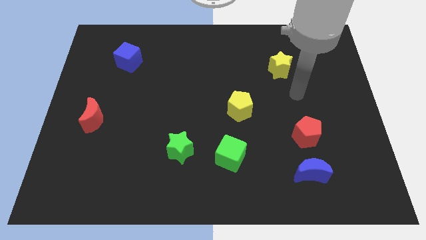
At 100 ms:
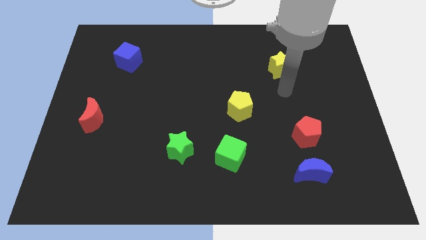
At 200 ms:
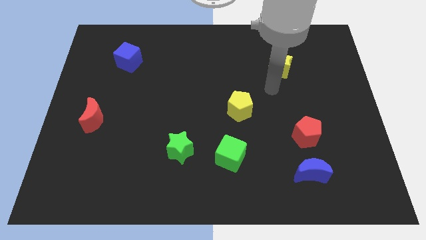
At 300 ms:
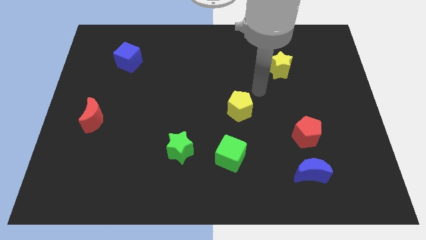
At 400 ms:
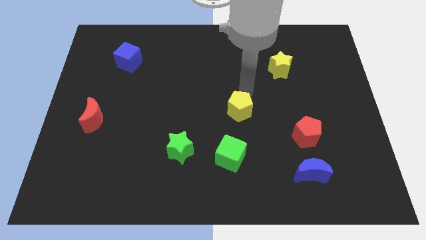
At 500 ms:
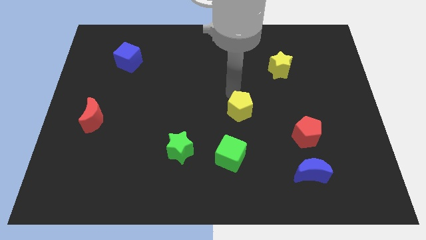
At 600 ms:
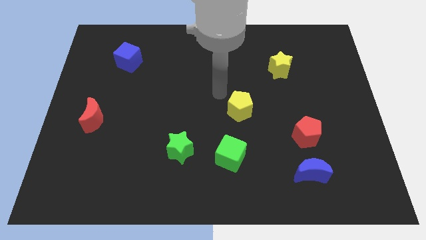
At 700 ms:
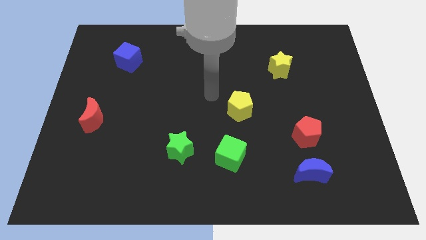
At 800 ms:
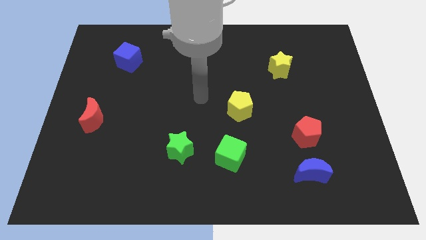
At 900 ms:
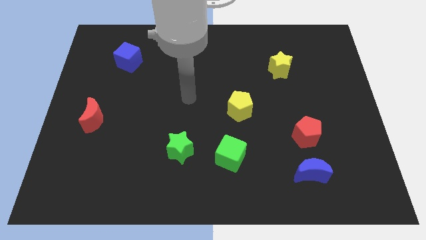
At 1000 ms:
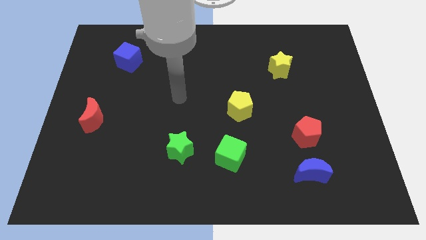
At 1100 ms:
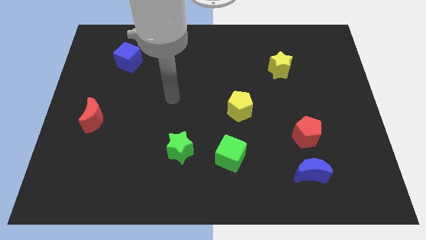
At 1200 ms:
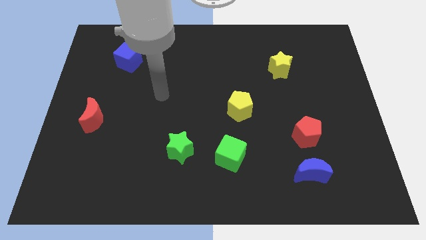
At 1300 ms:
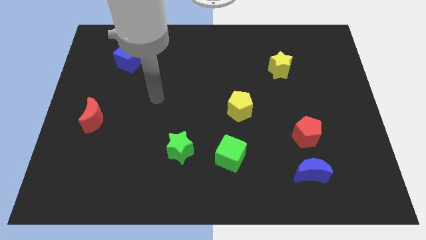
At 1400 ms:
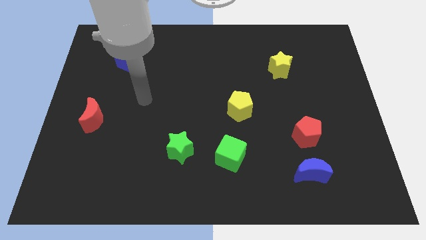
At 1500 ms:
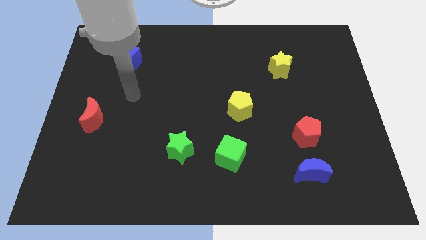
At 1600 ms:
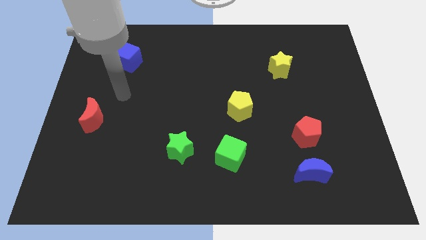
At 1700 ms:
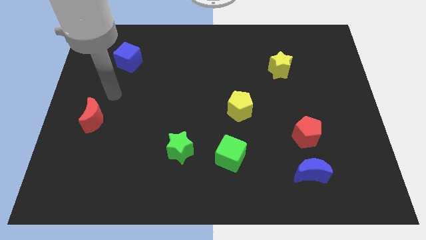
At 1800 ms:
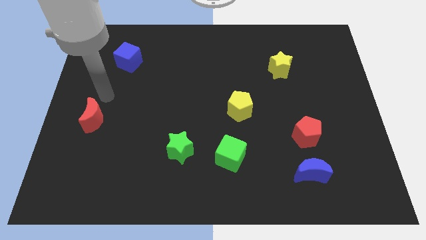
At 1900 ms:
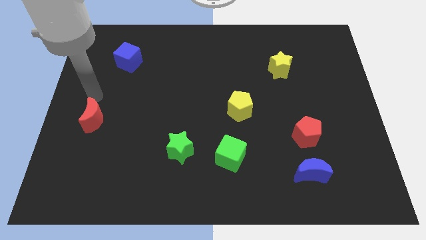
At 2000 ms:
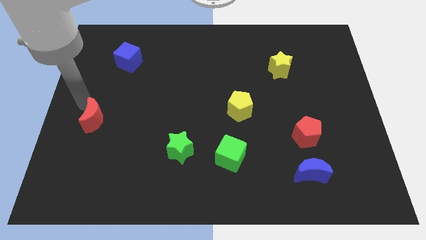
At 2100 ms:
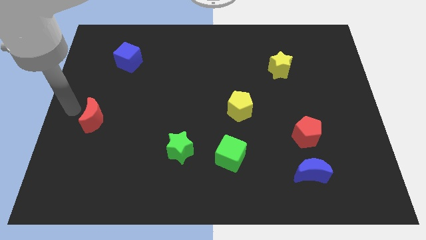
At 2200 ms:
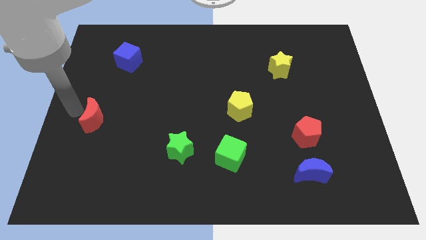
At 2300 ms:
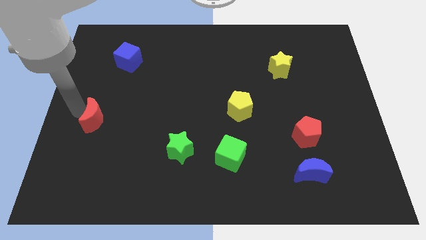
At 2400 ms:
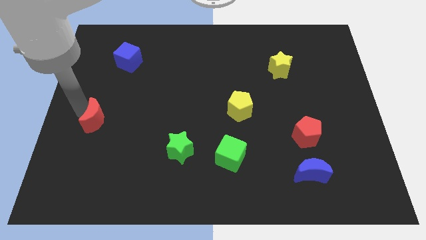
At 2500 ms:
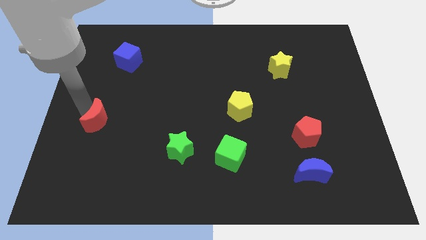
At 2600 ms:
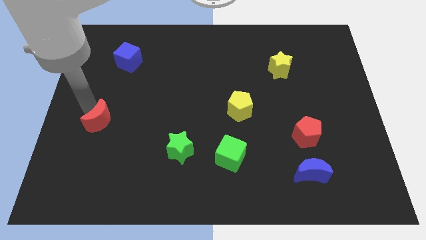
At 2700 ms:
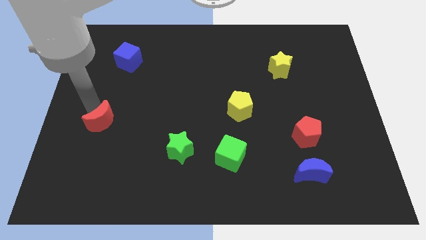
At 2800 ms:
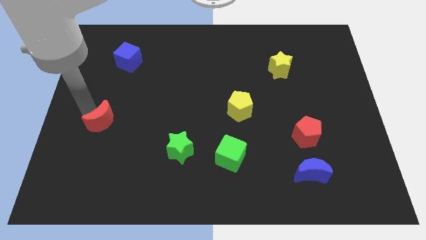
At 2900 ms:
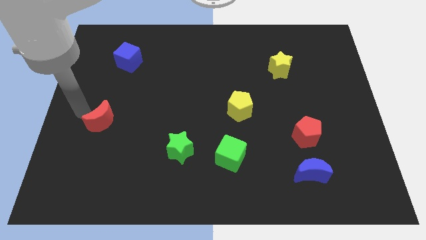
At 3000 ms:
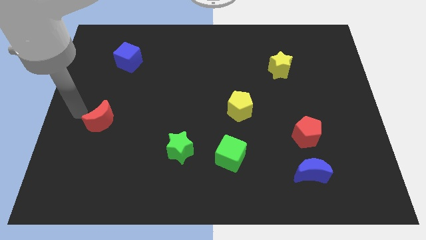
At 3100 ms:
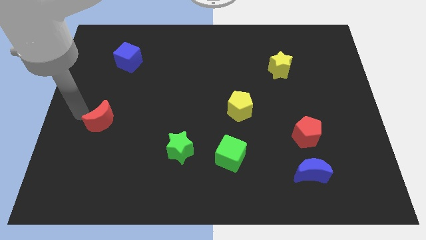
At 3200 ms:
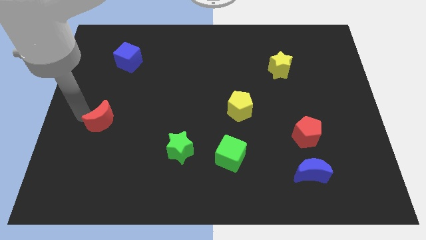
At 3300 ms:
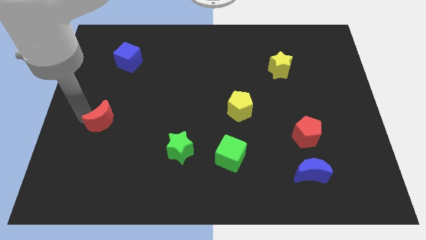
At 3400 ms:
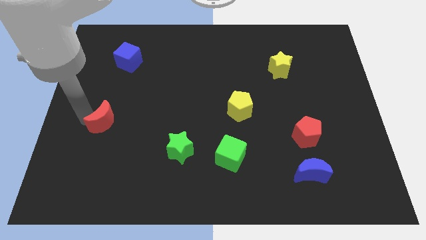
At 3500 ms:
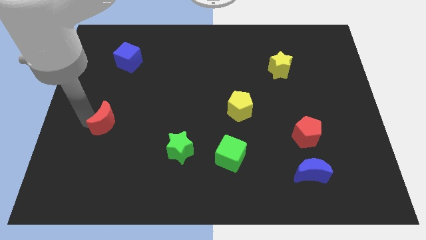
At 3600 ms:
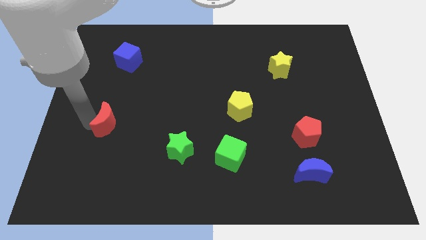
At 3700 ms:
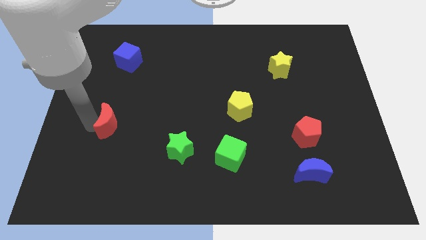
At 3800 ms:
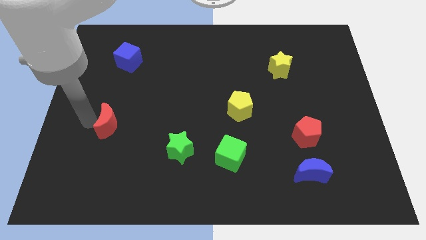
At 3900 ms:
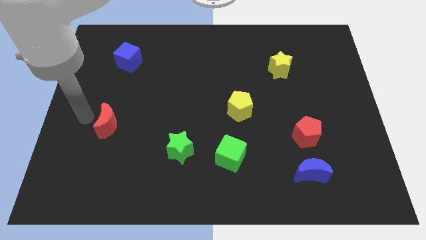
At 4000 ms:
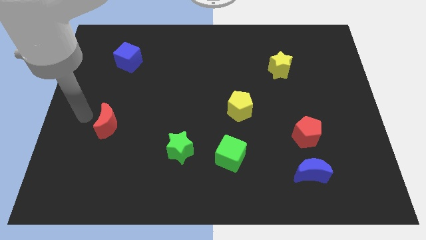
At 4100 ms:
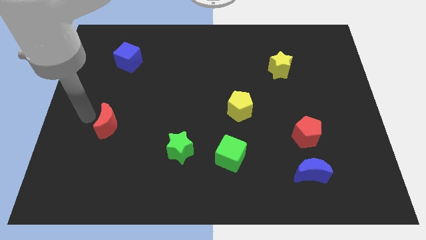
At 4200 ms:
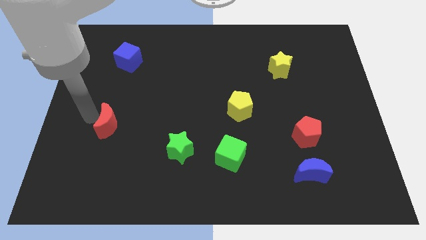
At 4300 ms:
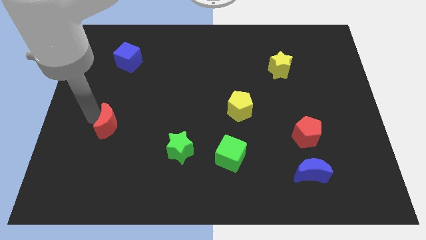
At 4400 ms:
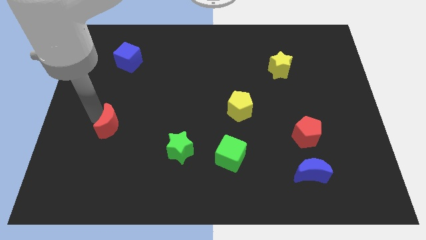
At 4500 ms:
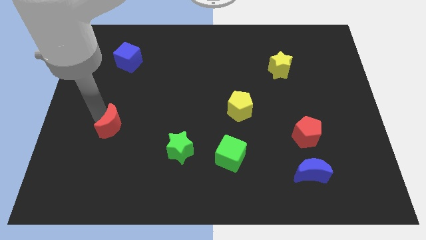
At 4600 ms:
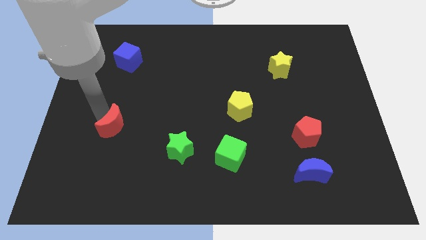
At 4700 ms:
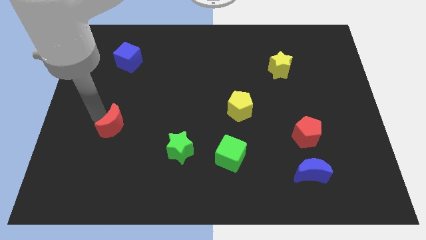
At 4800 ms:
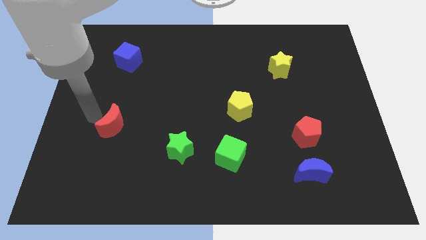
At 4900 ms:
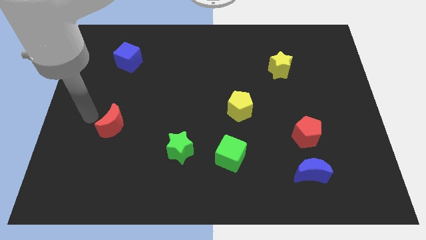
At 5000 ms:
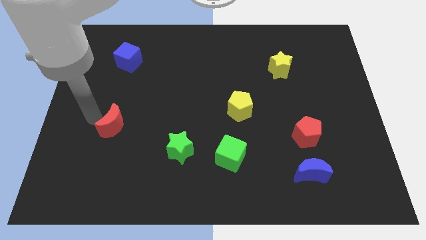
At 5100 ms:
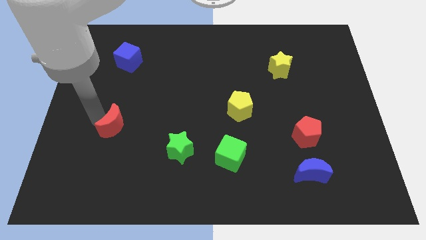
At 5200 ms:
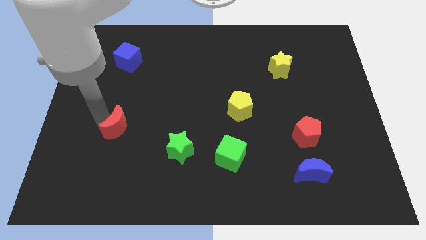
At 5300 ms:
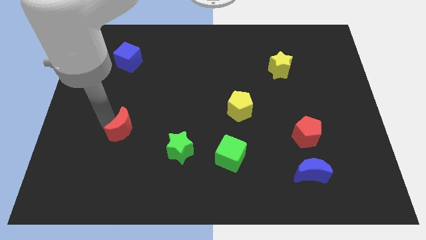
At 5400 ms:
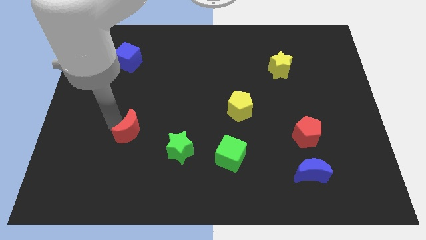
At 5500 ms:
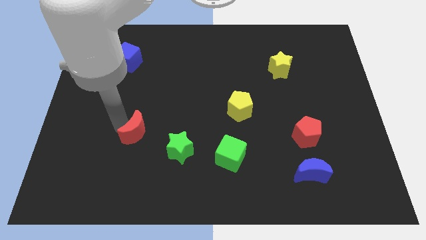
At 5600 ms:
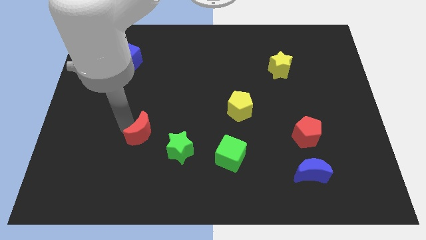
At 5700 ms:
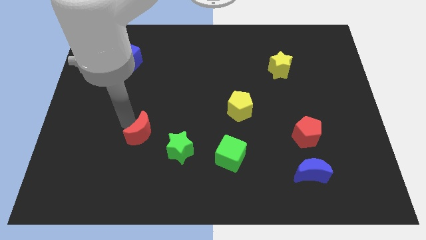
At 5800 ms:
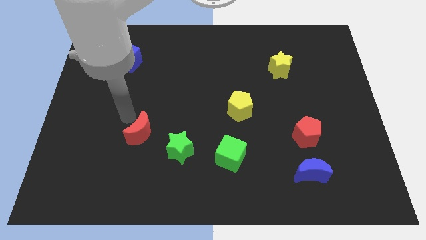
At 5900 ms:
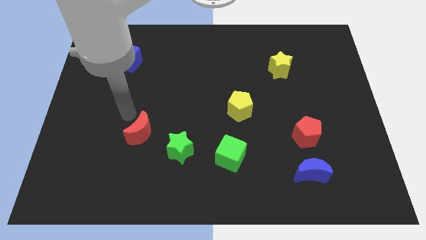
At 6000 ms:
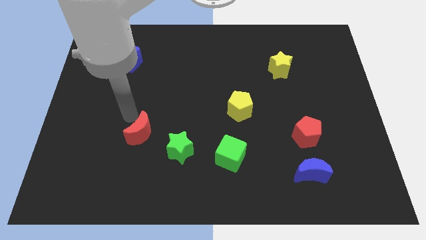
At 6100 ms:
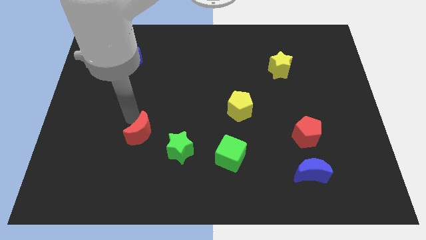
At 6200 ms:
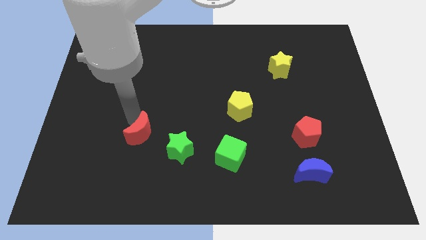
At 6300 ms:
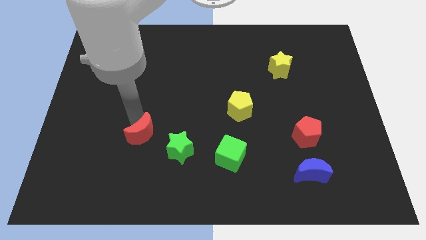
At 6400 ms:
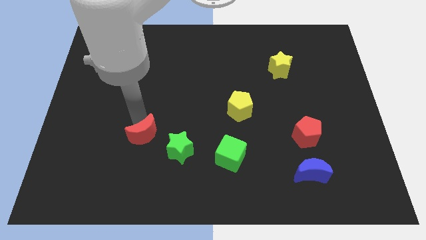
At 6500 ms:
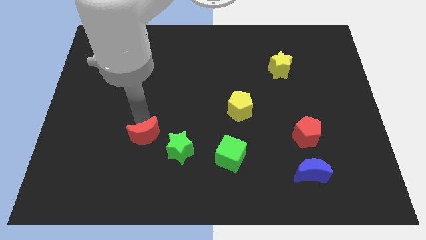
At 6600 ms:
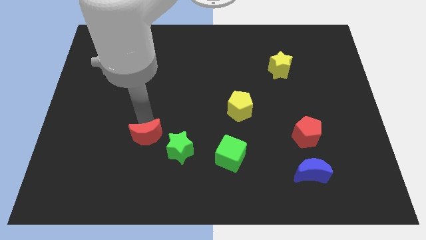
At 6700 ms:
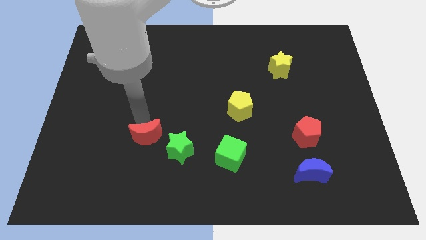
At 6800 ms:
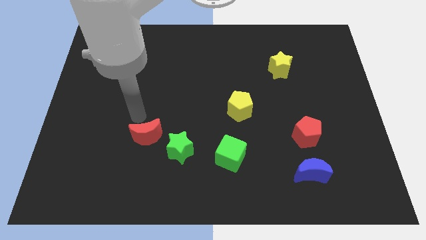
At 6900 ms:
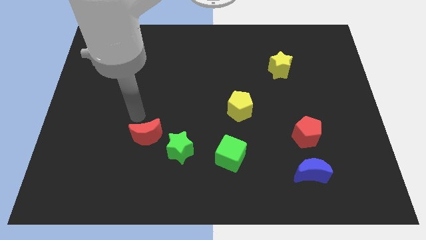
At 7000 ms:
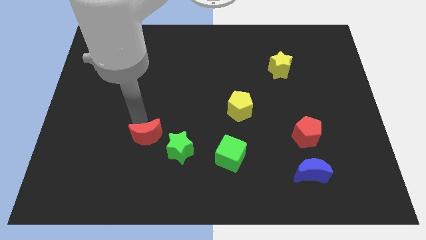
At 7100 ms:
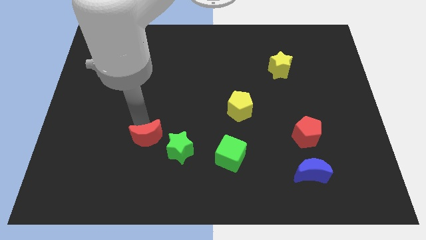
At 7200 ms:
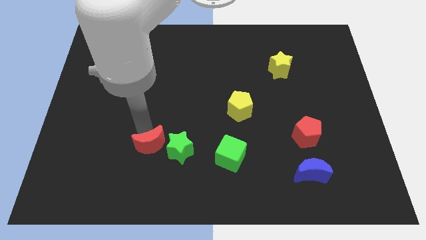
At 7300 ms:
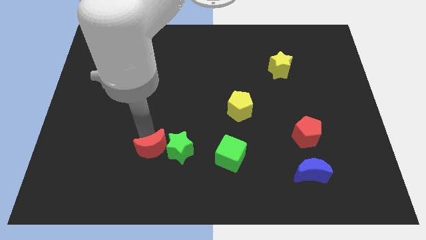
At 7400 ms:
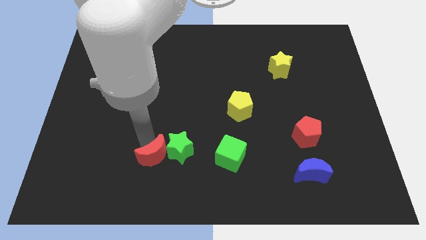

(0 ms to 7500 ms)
push the red moon left of the green cube

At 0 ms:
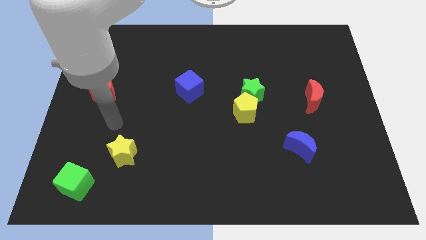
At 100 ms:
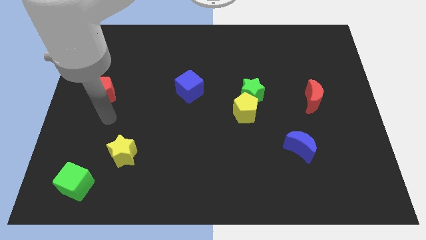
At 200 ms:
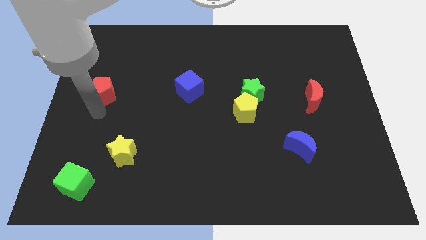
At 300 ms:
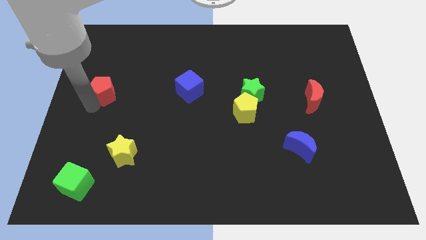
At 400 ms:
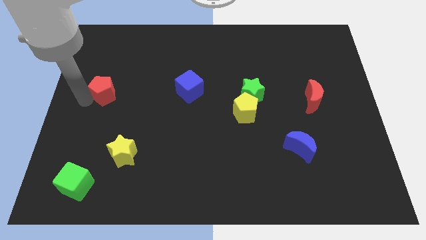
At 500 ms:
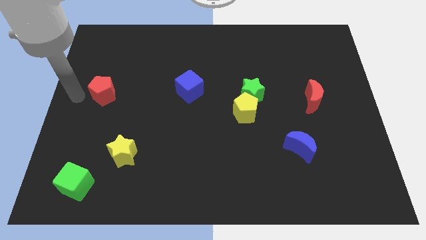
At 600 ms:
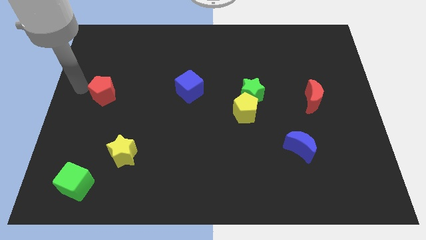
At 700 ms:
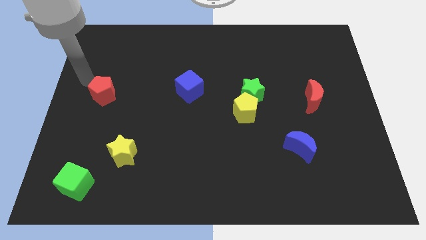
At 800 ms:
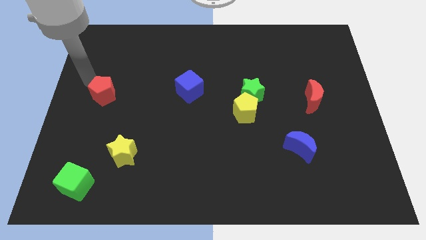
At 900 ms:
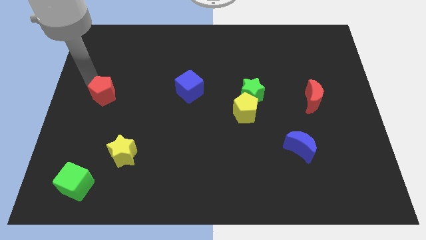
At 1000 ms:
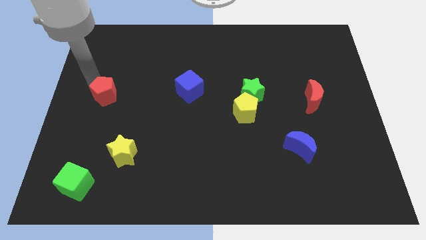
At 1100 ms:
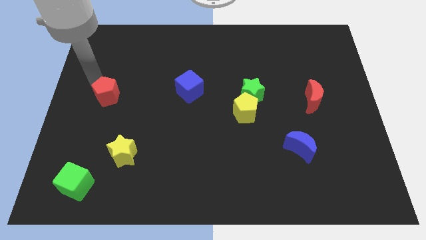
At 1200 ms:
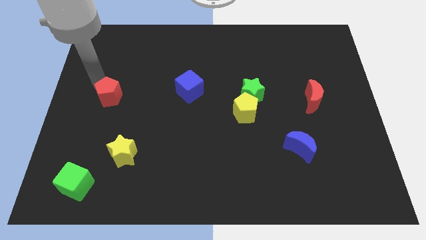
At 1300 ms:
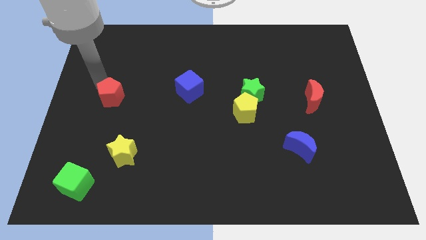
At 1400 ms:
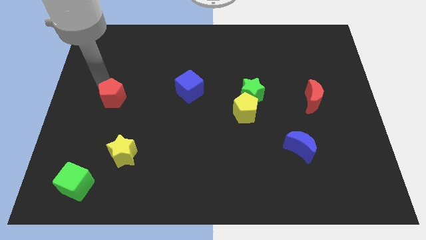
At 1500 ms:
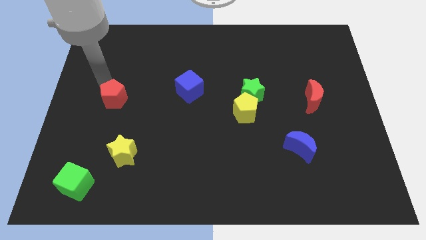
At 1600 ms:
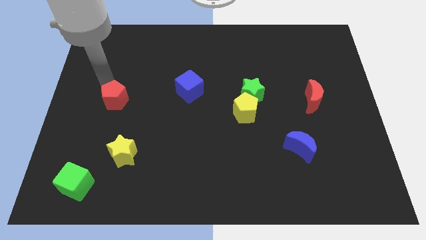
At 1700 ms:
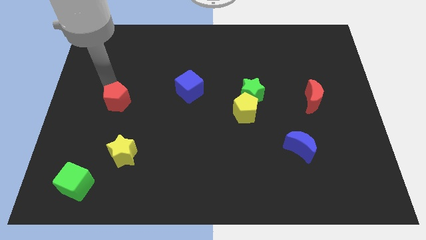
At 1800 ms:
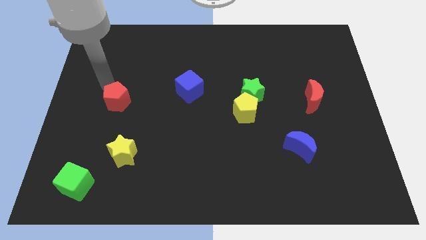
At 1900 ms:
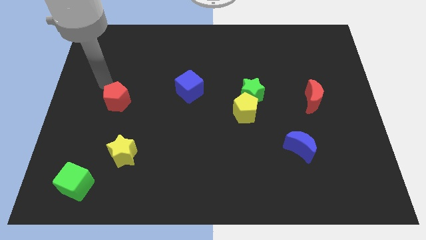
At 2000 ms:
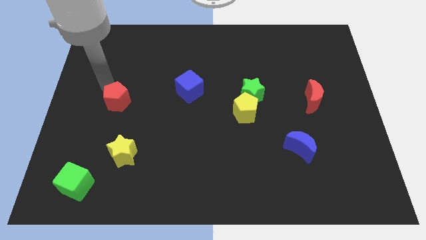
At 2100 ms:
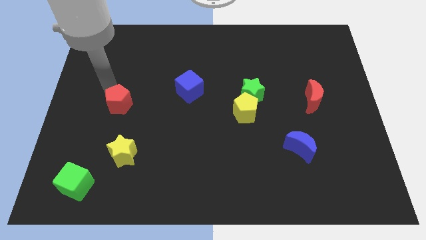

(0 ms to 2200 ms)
push the red pentagon above the yellow star
